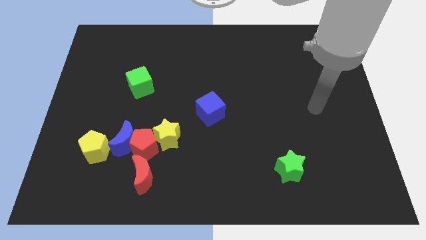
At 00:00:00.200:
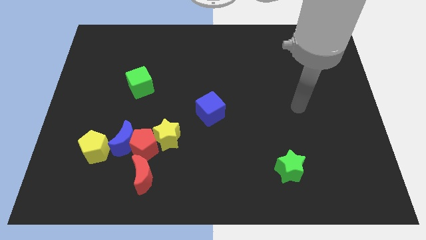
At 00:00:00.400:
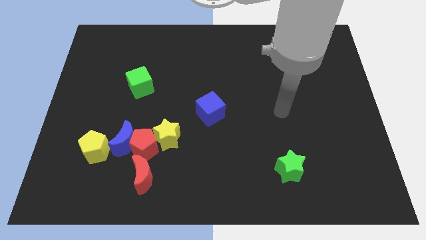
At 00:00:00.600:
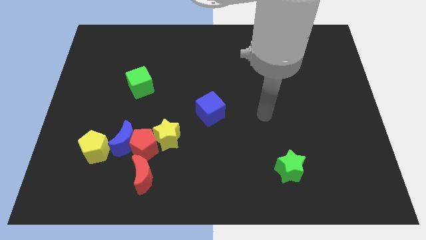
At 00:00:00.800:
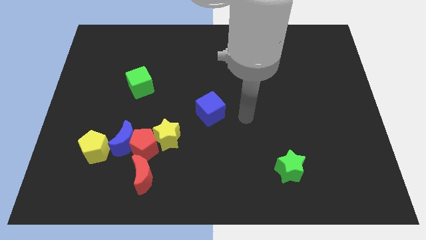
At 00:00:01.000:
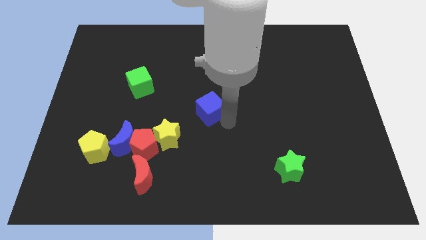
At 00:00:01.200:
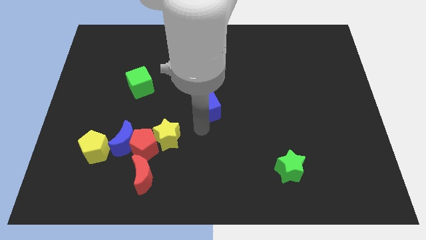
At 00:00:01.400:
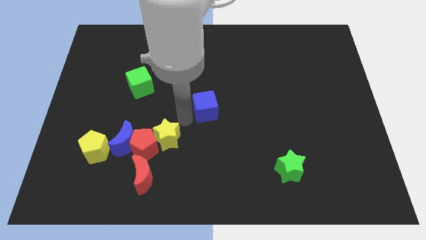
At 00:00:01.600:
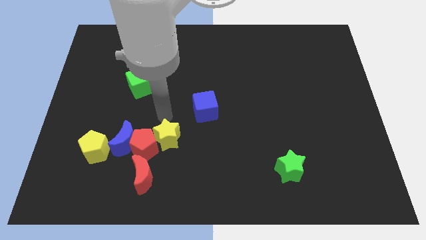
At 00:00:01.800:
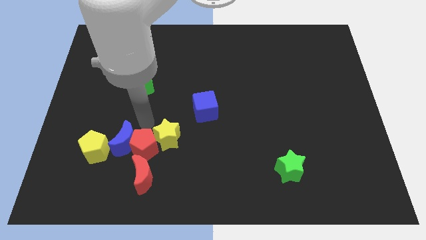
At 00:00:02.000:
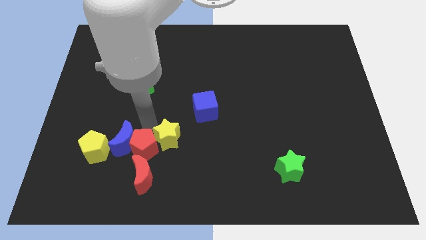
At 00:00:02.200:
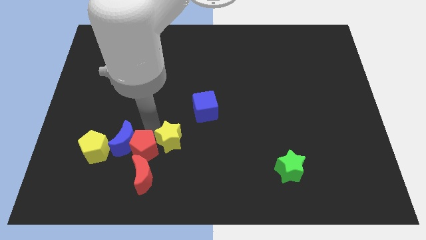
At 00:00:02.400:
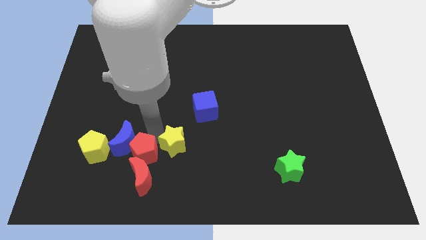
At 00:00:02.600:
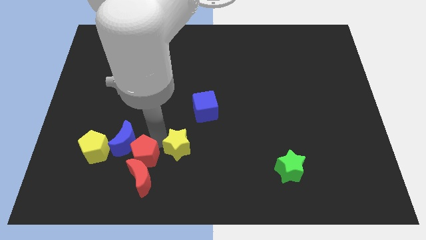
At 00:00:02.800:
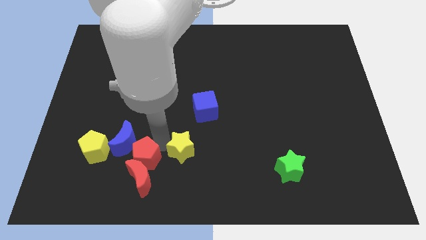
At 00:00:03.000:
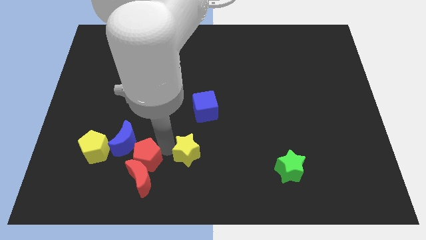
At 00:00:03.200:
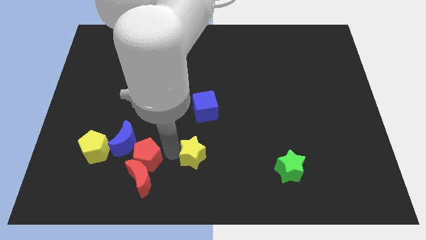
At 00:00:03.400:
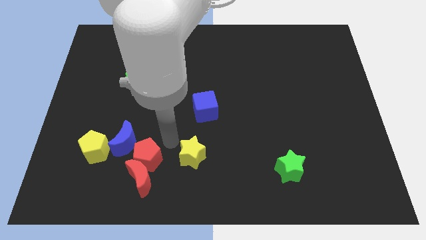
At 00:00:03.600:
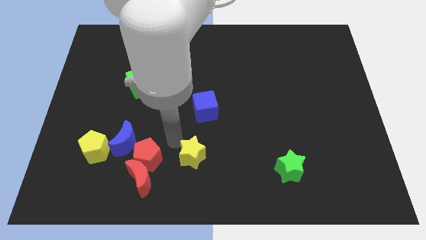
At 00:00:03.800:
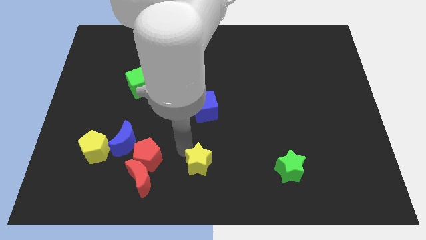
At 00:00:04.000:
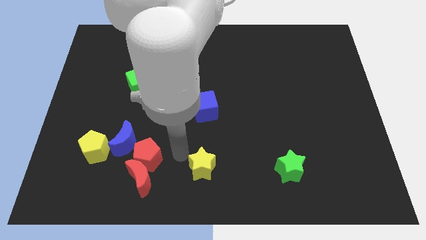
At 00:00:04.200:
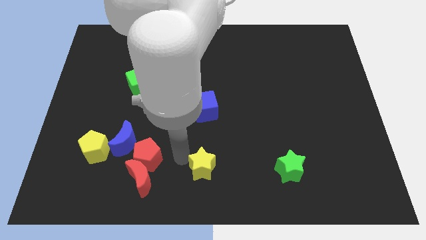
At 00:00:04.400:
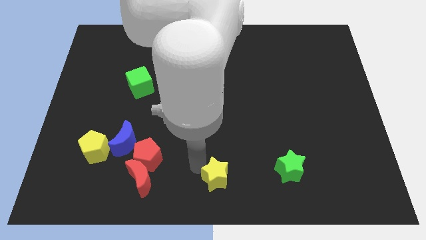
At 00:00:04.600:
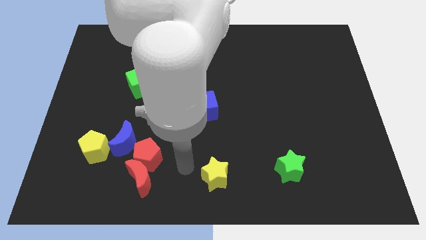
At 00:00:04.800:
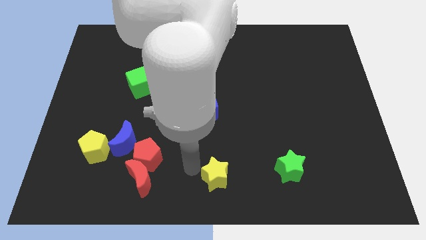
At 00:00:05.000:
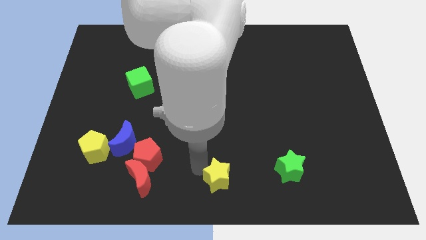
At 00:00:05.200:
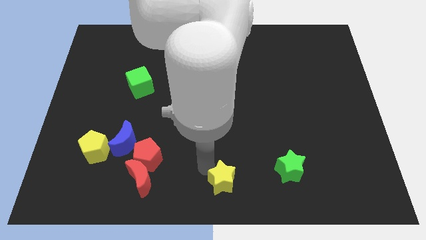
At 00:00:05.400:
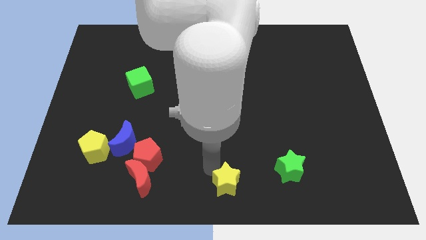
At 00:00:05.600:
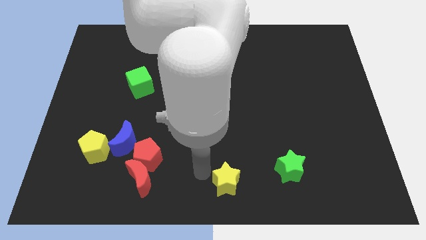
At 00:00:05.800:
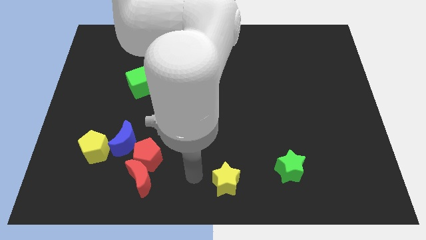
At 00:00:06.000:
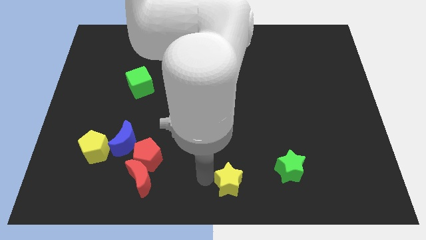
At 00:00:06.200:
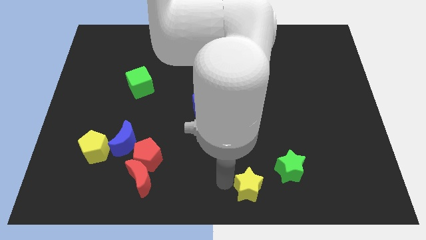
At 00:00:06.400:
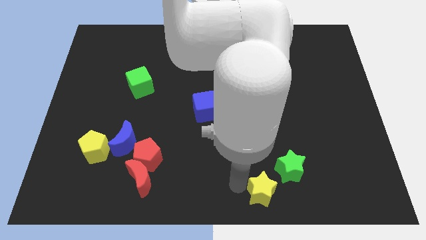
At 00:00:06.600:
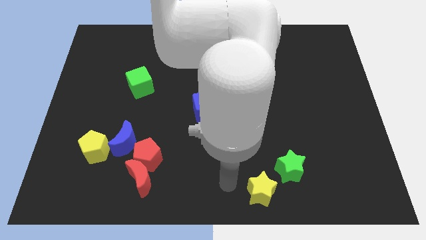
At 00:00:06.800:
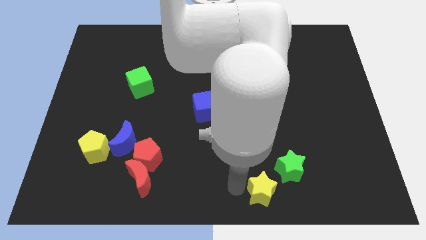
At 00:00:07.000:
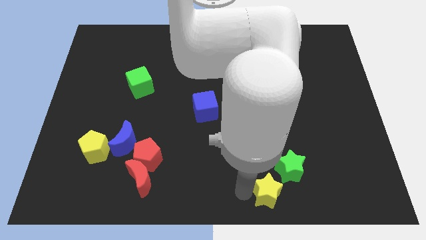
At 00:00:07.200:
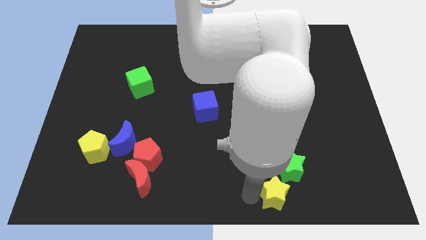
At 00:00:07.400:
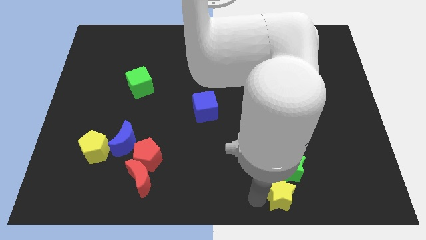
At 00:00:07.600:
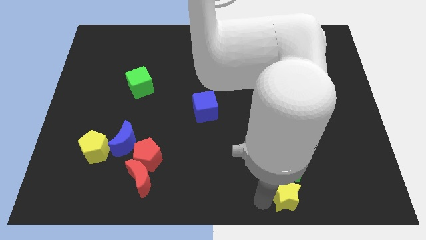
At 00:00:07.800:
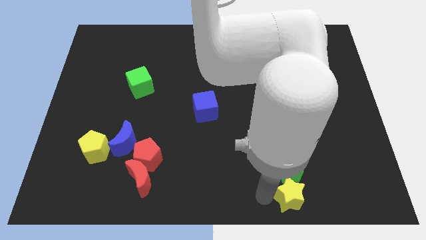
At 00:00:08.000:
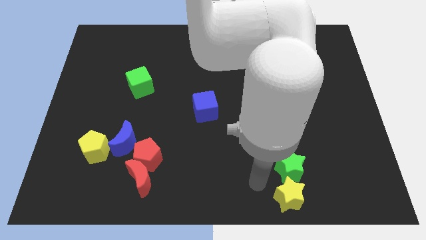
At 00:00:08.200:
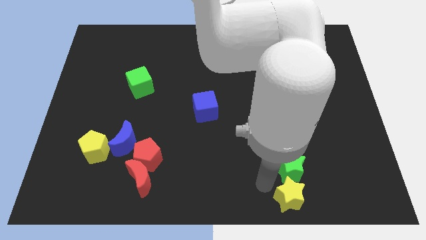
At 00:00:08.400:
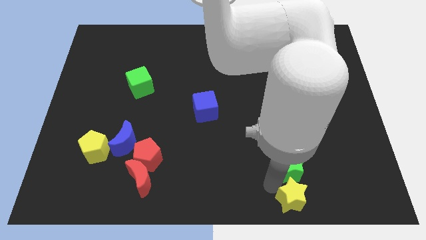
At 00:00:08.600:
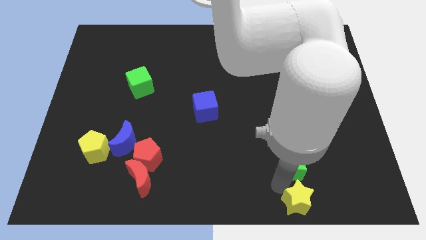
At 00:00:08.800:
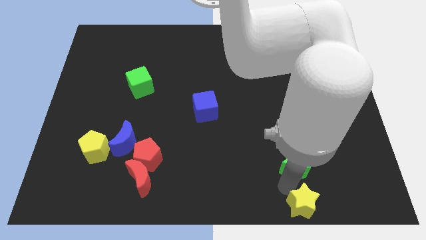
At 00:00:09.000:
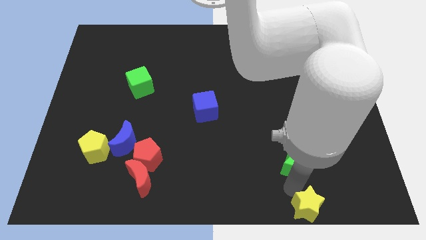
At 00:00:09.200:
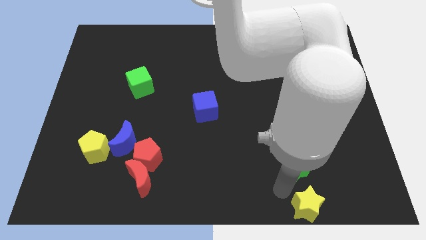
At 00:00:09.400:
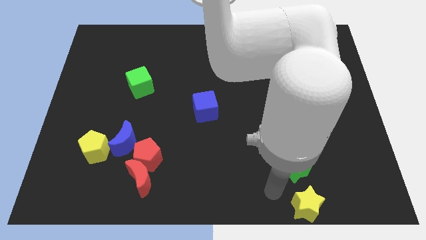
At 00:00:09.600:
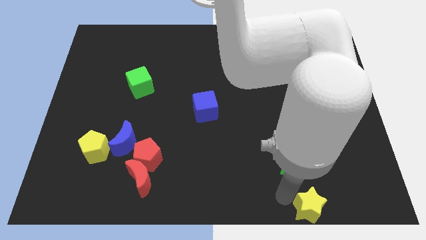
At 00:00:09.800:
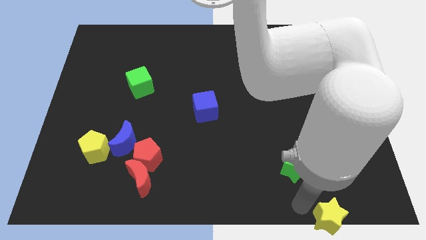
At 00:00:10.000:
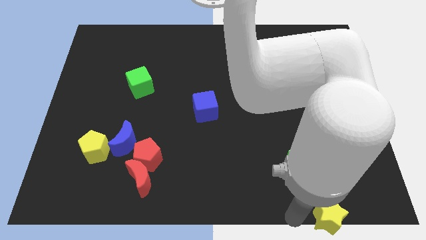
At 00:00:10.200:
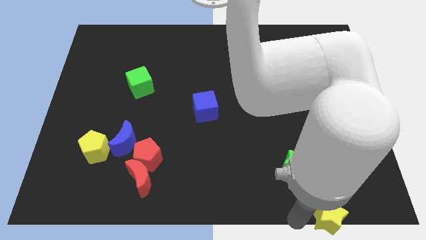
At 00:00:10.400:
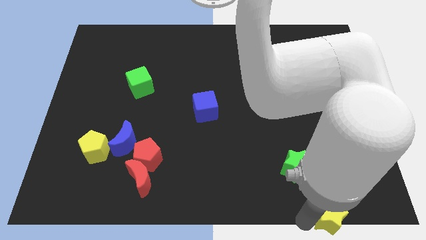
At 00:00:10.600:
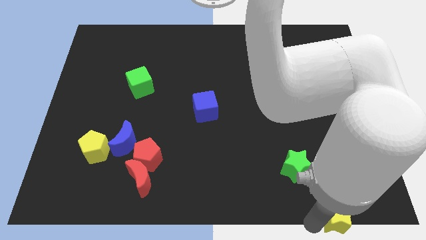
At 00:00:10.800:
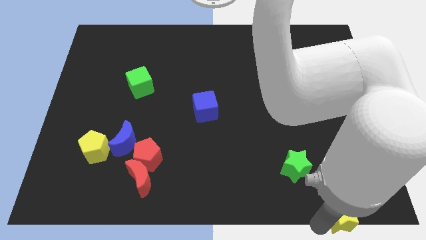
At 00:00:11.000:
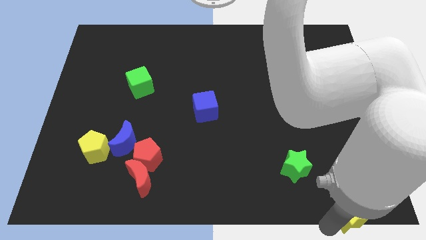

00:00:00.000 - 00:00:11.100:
put the yellow star to the lower right corner

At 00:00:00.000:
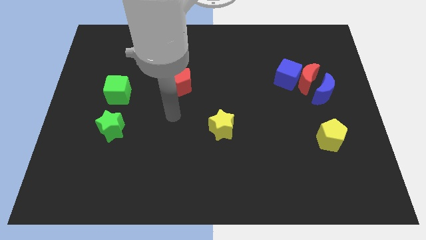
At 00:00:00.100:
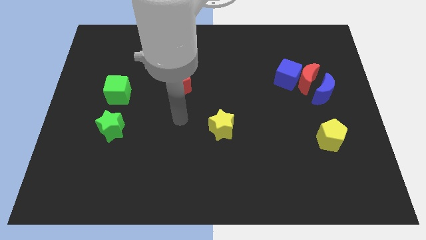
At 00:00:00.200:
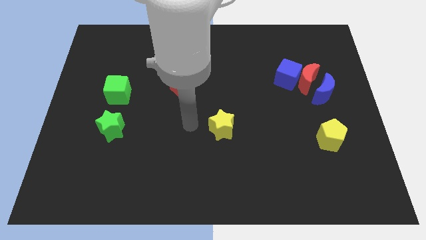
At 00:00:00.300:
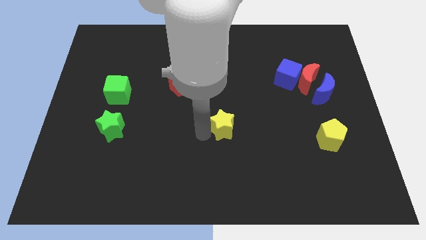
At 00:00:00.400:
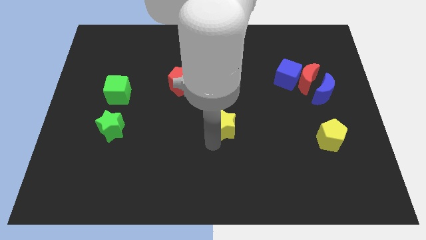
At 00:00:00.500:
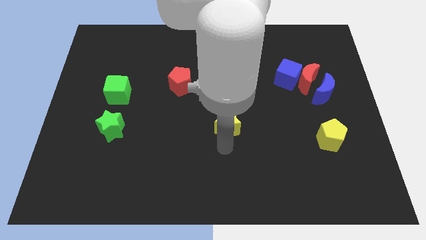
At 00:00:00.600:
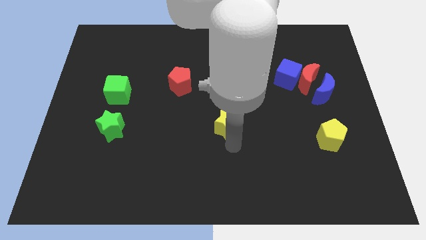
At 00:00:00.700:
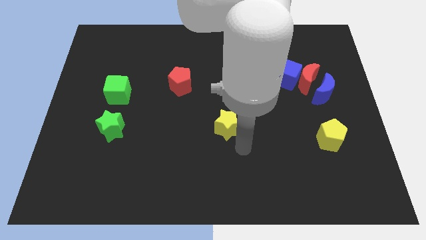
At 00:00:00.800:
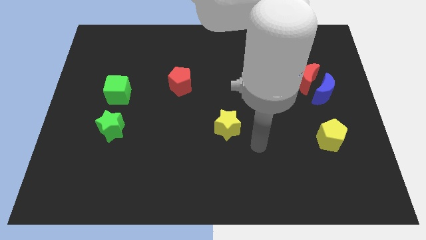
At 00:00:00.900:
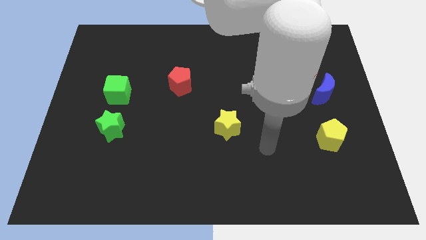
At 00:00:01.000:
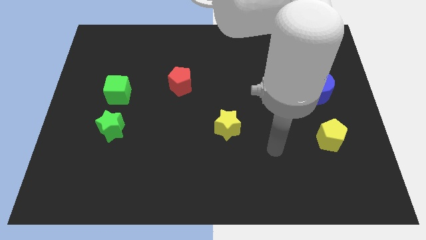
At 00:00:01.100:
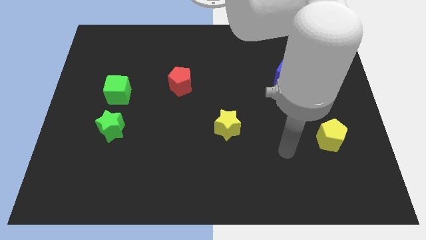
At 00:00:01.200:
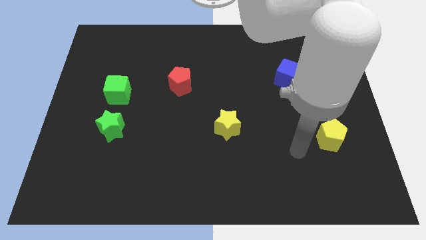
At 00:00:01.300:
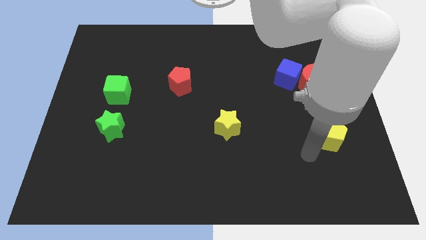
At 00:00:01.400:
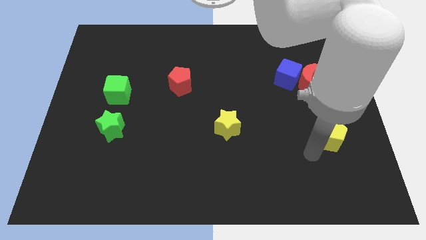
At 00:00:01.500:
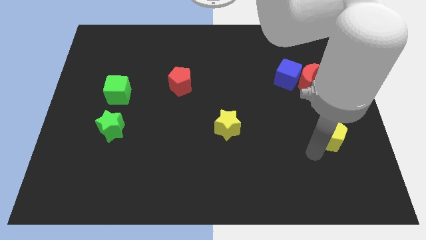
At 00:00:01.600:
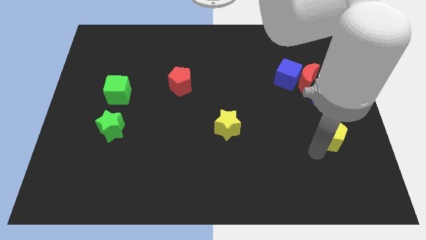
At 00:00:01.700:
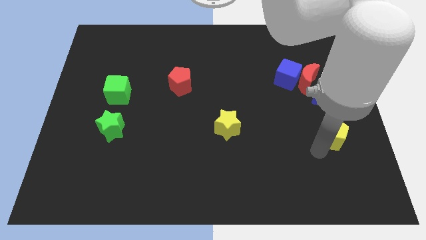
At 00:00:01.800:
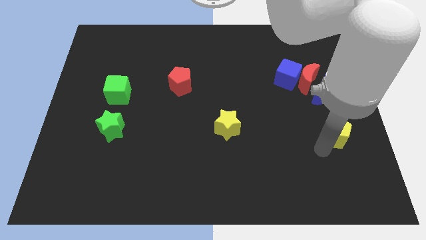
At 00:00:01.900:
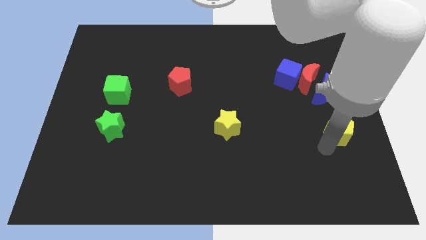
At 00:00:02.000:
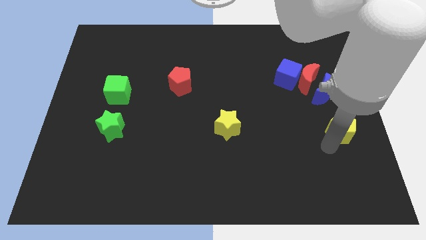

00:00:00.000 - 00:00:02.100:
slide the yellow pentagon to the right side of the board
